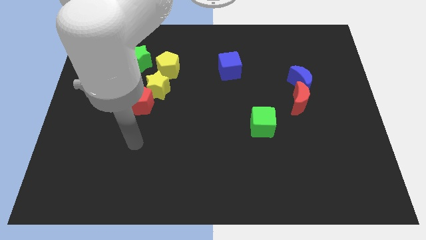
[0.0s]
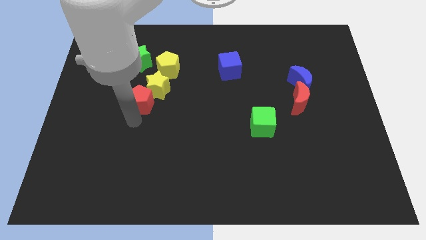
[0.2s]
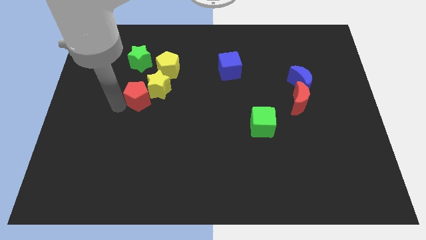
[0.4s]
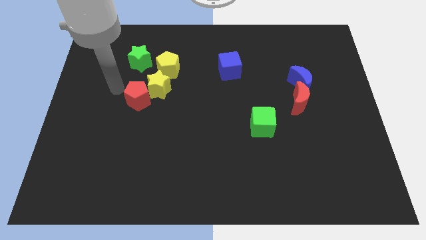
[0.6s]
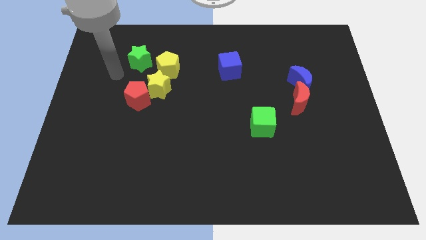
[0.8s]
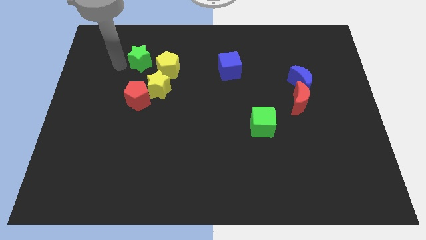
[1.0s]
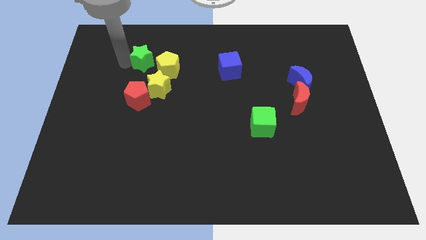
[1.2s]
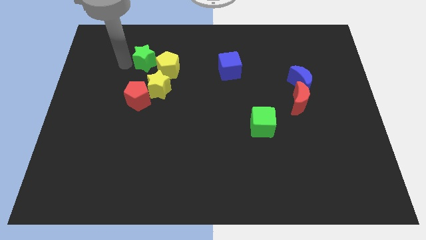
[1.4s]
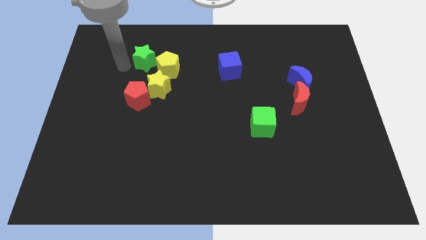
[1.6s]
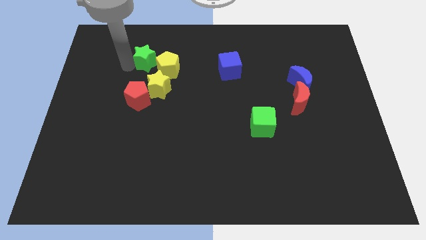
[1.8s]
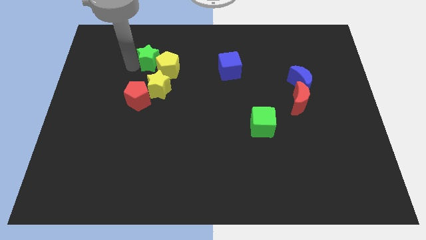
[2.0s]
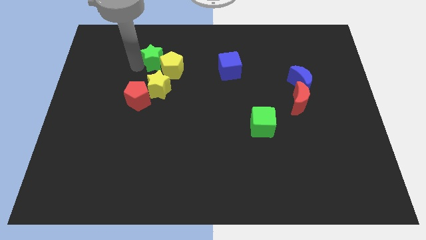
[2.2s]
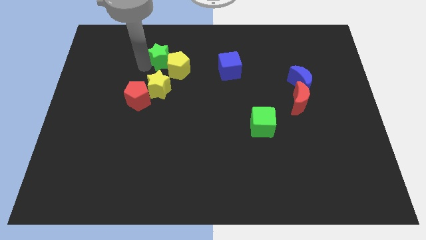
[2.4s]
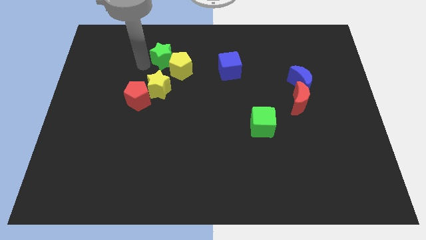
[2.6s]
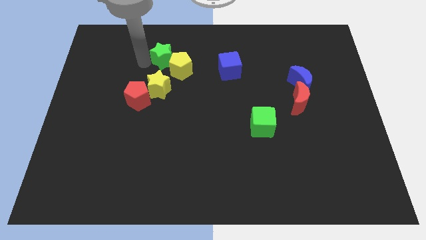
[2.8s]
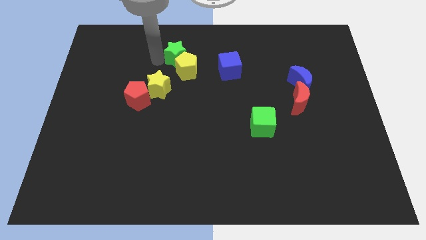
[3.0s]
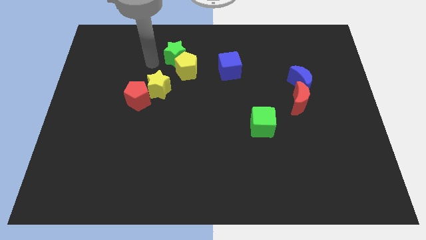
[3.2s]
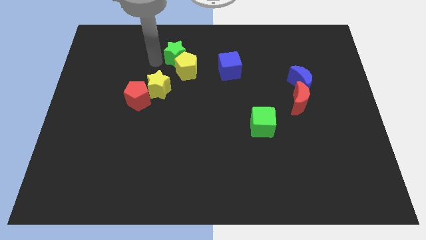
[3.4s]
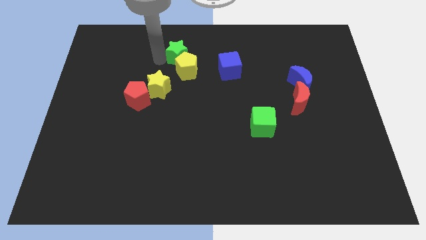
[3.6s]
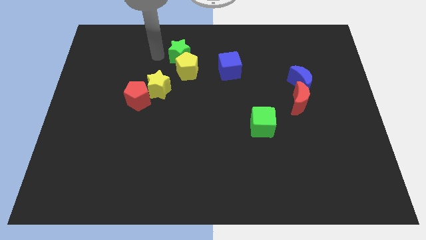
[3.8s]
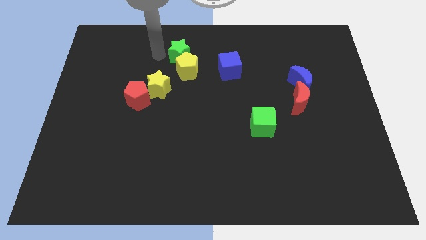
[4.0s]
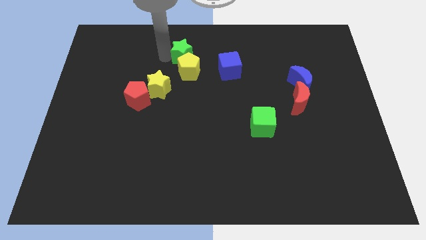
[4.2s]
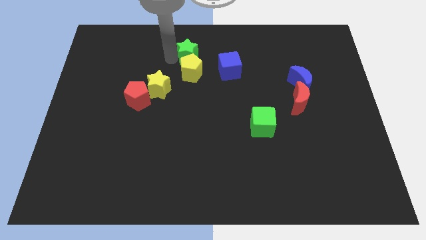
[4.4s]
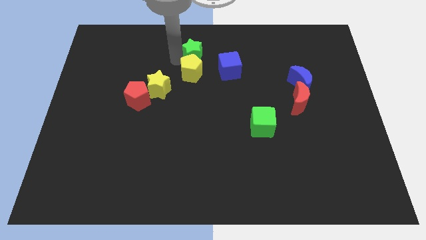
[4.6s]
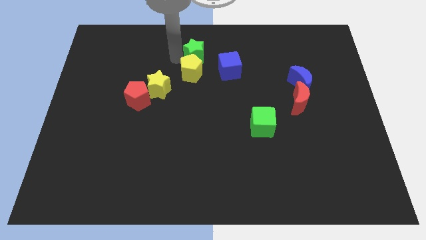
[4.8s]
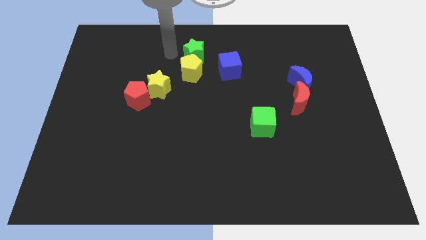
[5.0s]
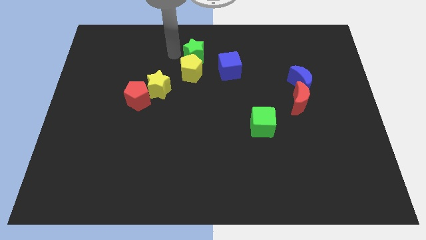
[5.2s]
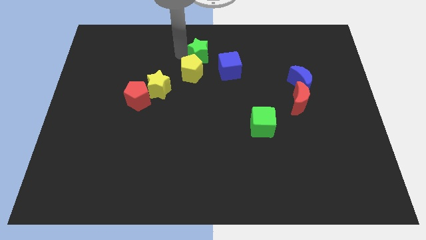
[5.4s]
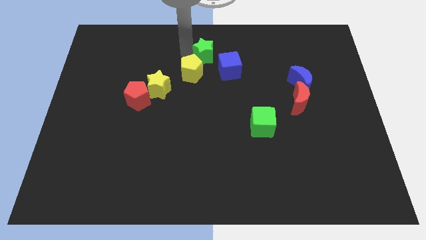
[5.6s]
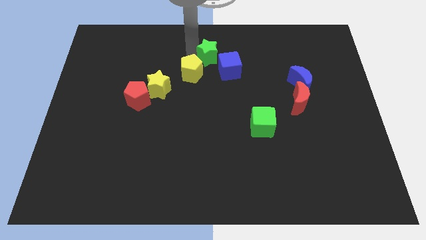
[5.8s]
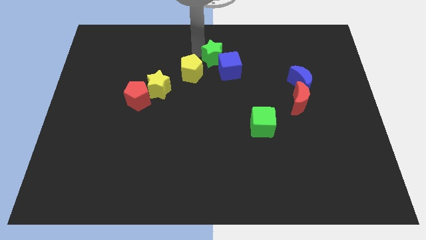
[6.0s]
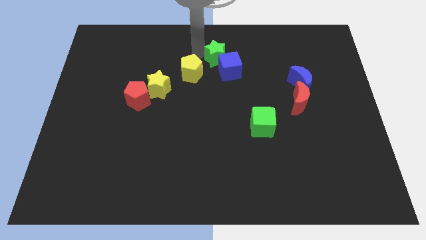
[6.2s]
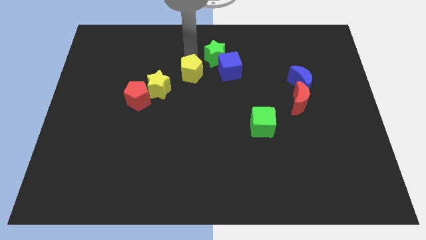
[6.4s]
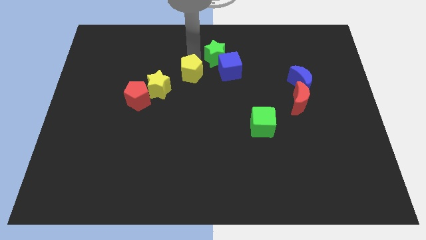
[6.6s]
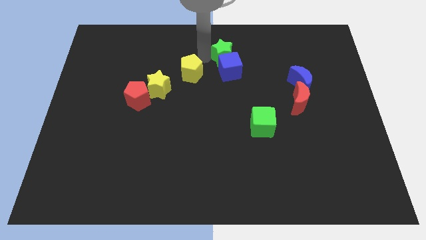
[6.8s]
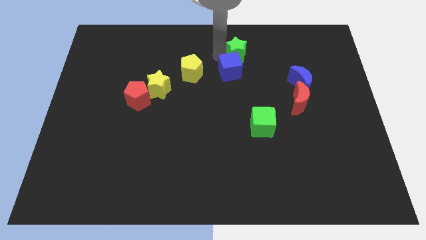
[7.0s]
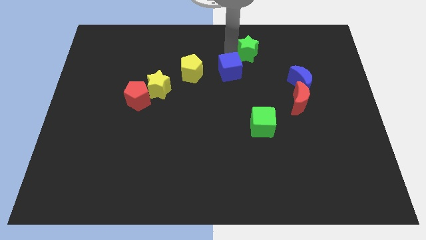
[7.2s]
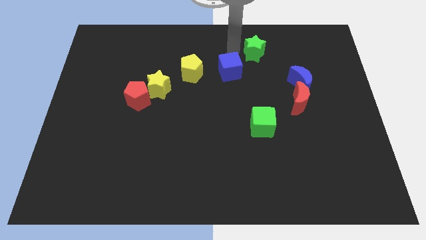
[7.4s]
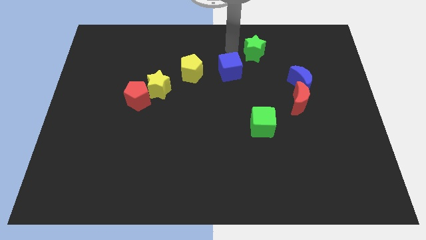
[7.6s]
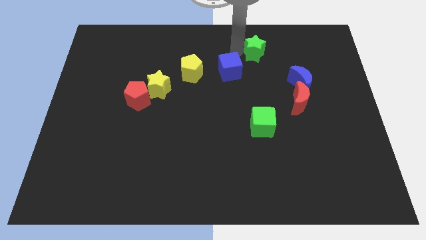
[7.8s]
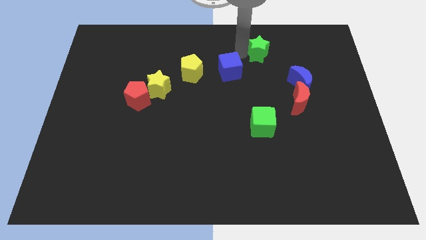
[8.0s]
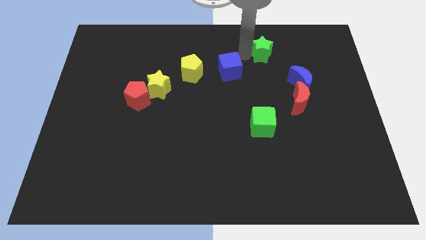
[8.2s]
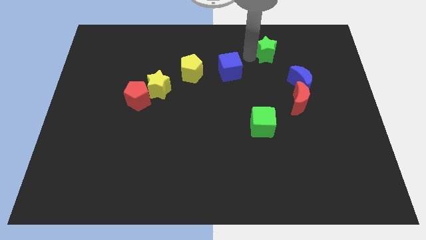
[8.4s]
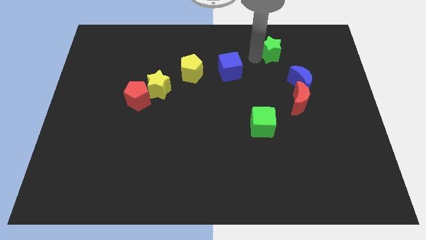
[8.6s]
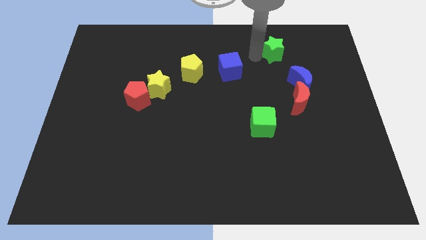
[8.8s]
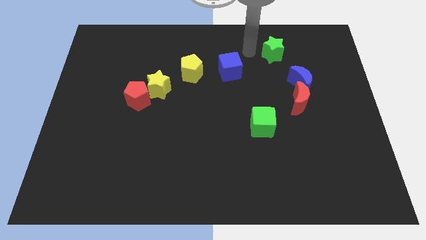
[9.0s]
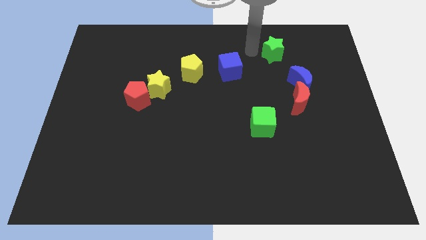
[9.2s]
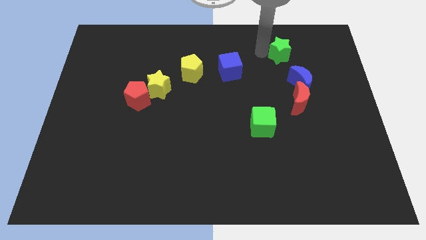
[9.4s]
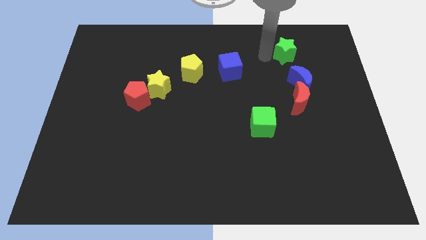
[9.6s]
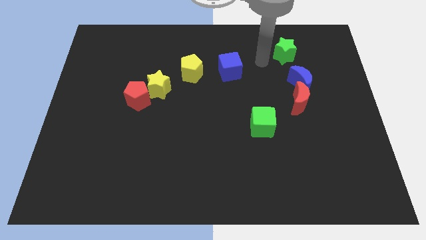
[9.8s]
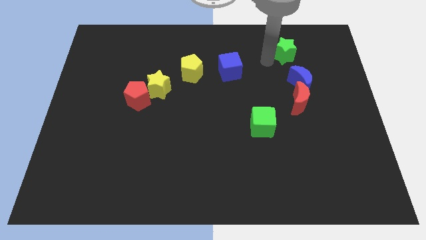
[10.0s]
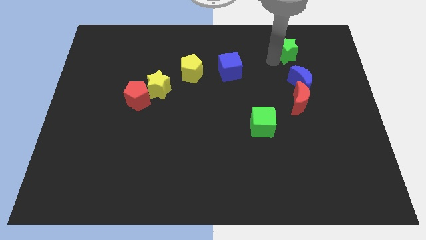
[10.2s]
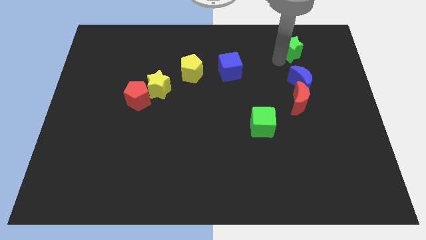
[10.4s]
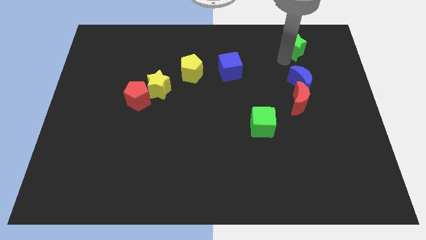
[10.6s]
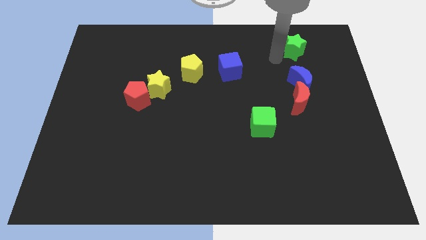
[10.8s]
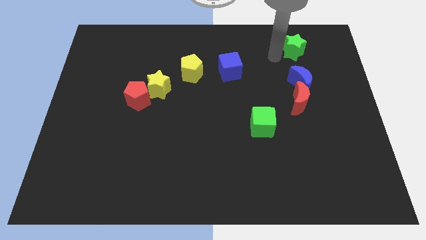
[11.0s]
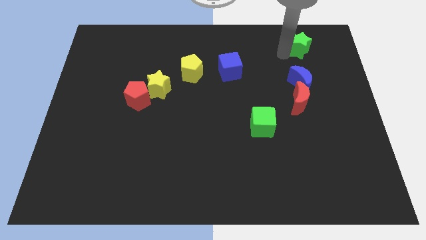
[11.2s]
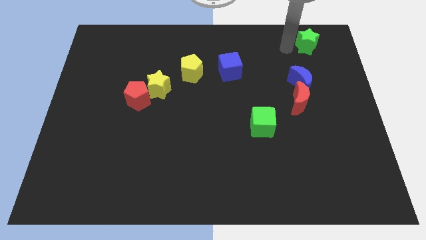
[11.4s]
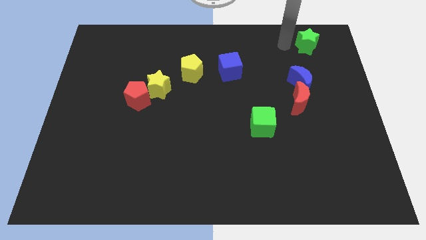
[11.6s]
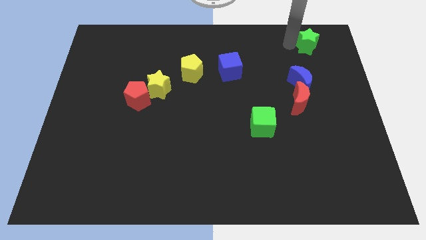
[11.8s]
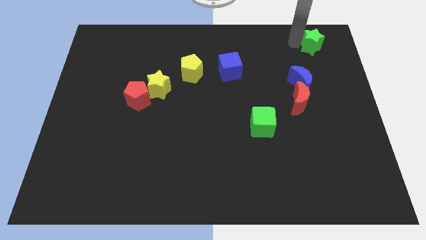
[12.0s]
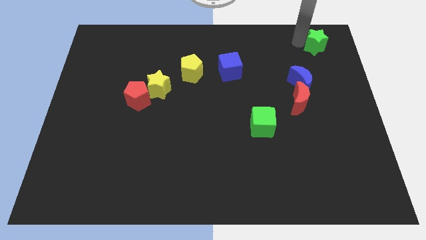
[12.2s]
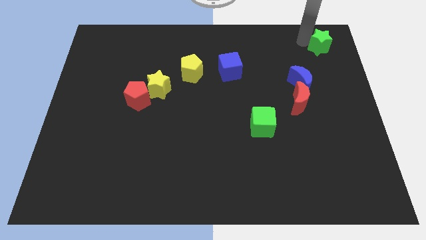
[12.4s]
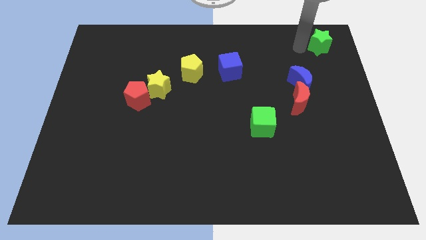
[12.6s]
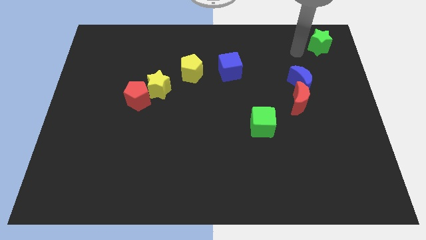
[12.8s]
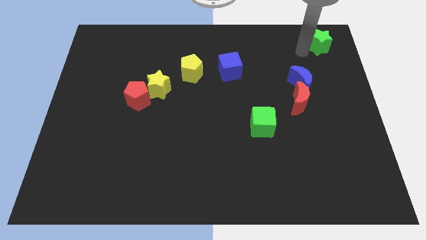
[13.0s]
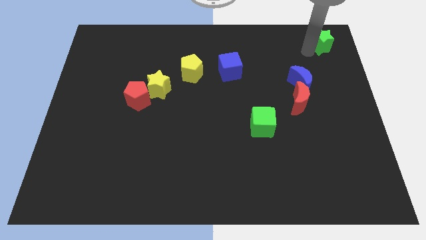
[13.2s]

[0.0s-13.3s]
move the green star to the upper right corner
